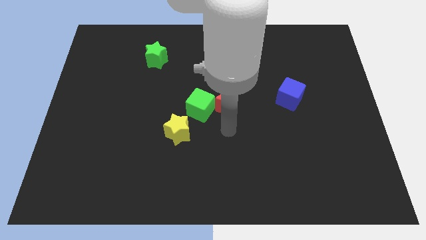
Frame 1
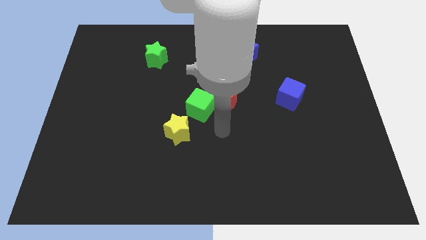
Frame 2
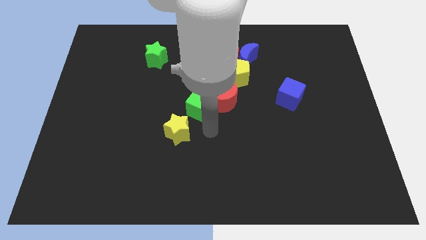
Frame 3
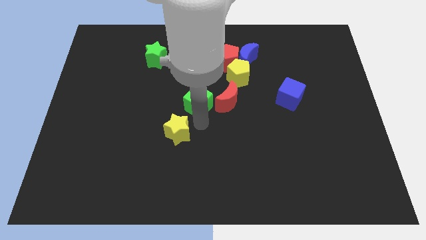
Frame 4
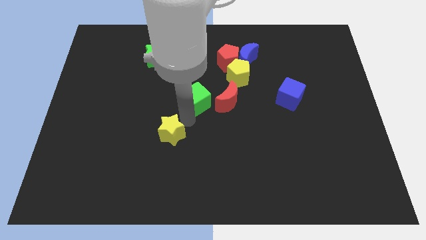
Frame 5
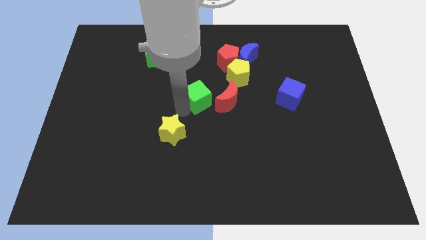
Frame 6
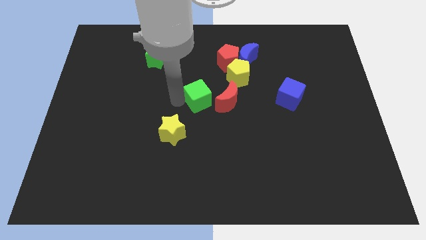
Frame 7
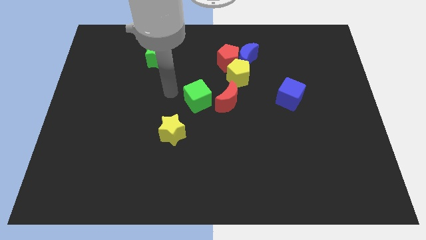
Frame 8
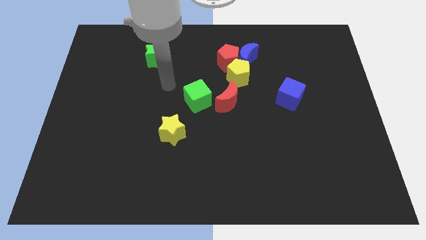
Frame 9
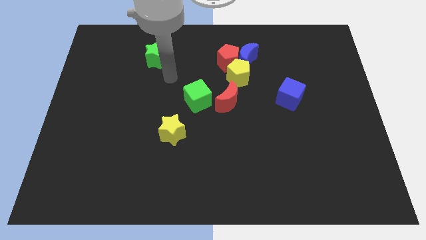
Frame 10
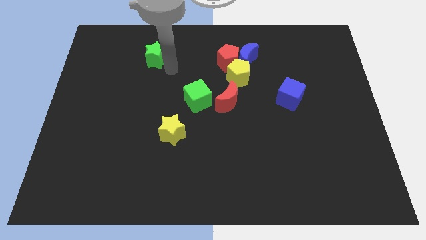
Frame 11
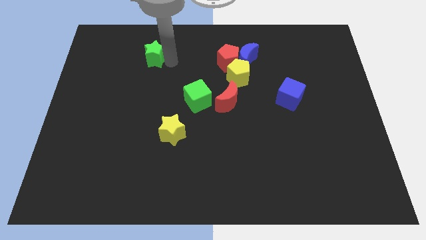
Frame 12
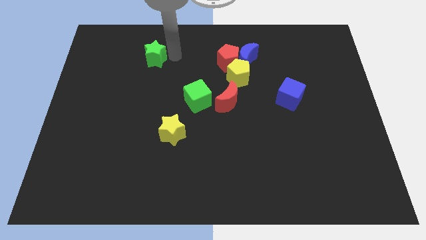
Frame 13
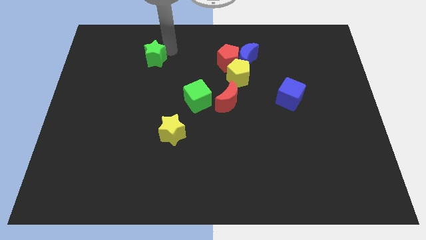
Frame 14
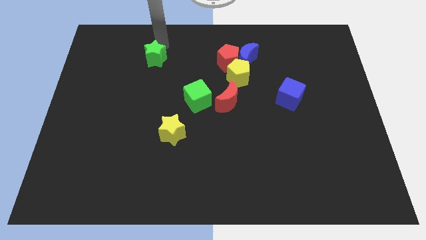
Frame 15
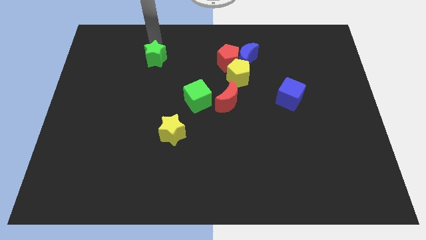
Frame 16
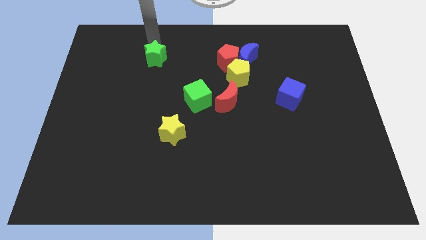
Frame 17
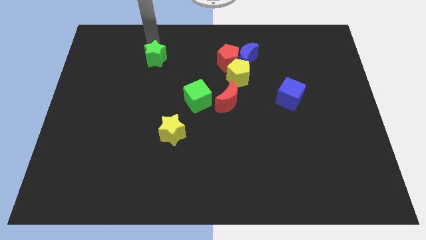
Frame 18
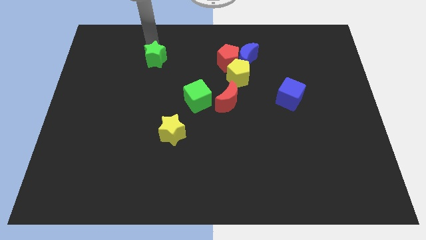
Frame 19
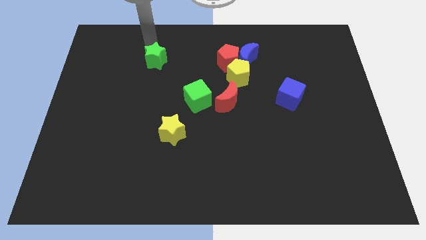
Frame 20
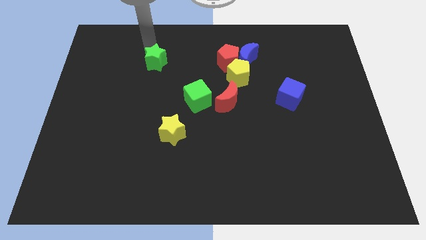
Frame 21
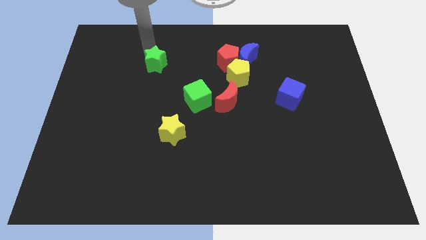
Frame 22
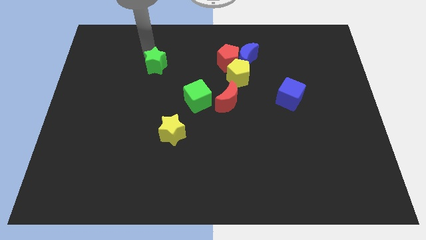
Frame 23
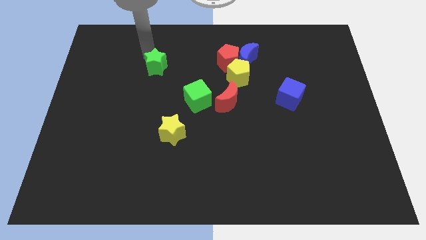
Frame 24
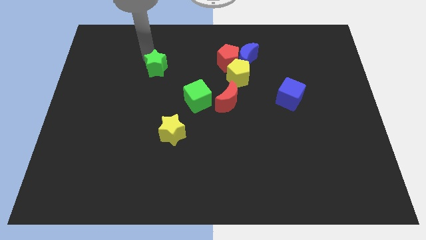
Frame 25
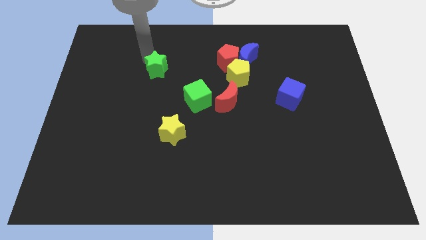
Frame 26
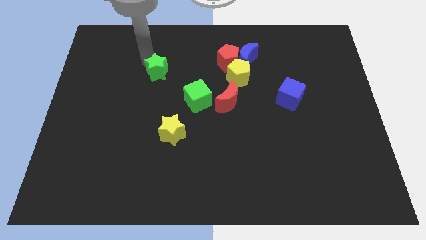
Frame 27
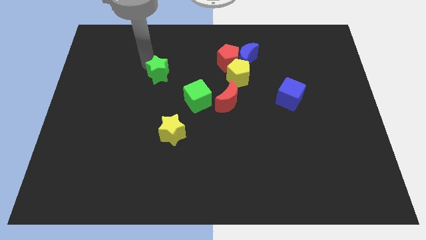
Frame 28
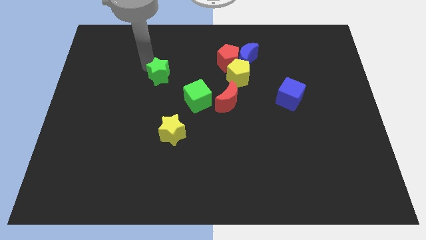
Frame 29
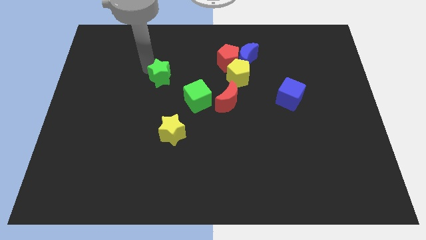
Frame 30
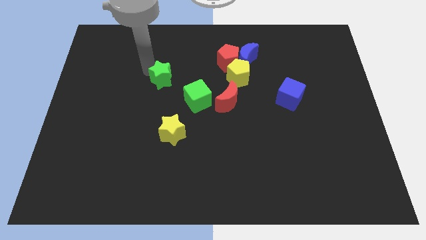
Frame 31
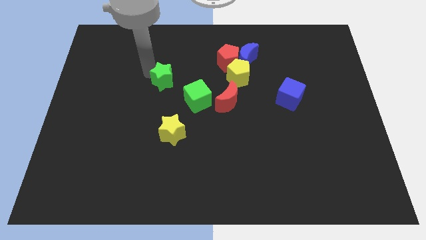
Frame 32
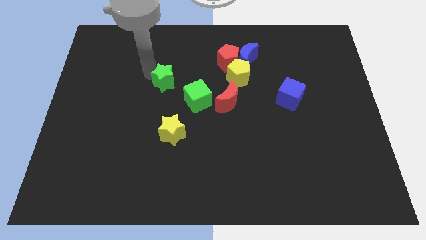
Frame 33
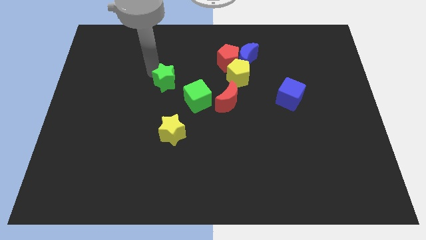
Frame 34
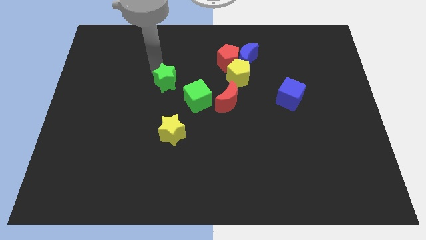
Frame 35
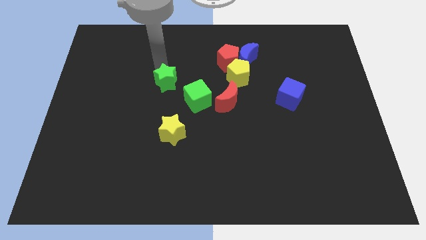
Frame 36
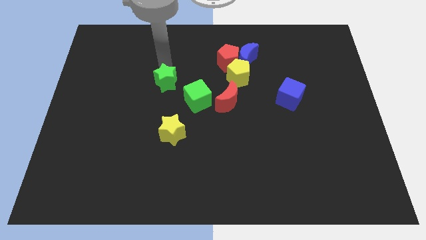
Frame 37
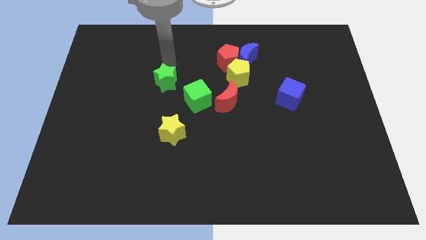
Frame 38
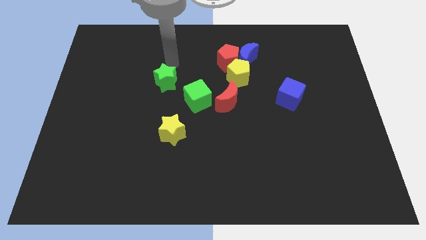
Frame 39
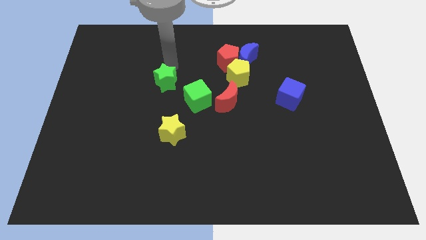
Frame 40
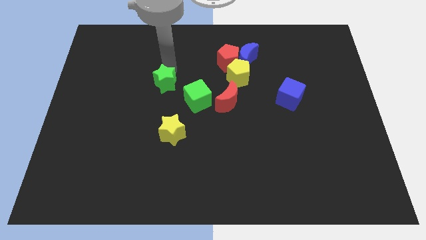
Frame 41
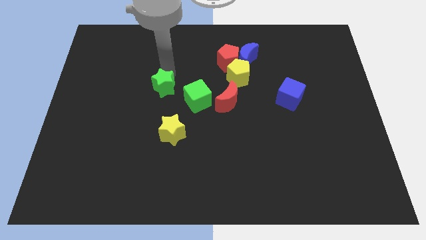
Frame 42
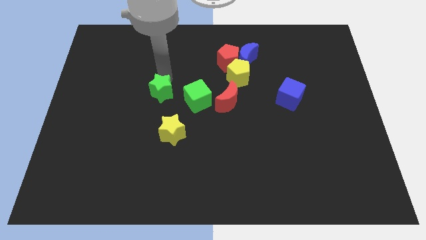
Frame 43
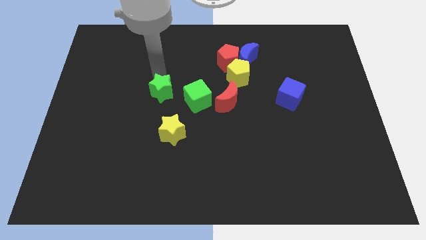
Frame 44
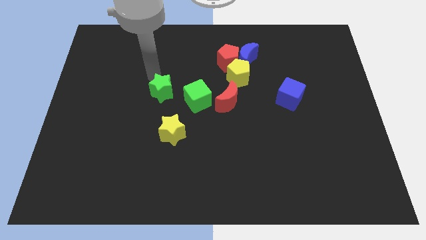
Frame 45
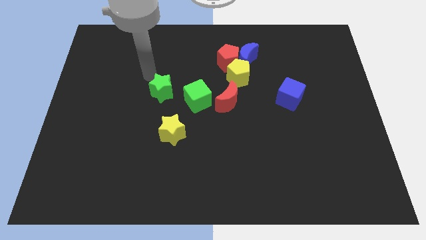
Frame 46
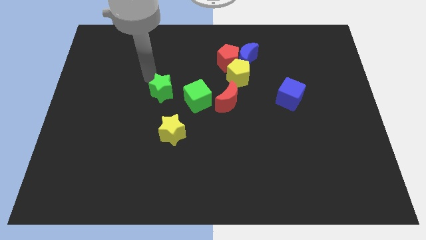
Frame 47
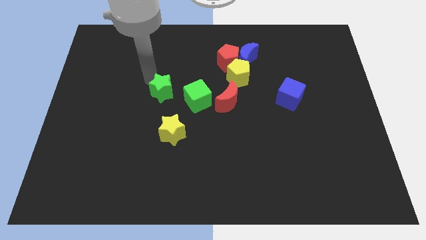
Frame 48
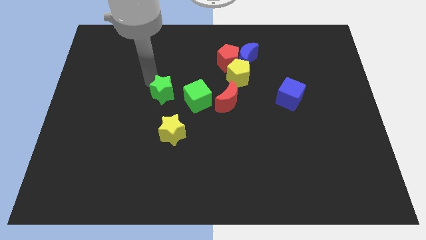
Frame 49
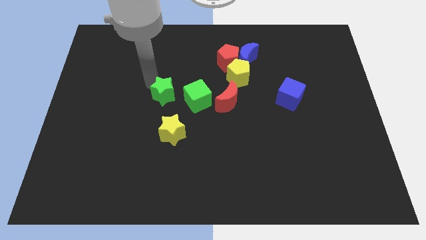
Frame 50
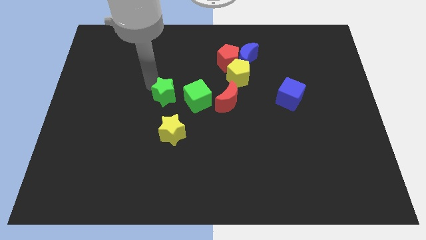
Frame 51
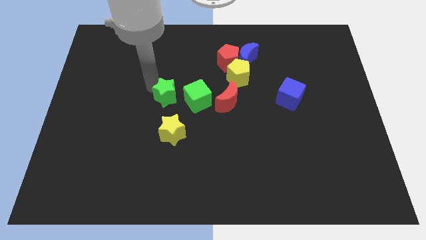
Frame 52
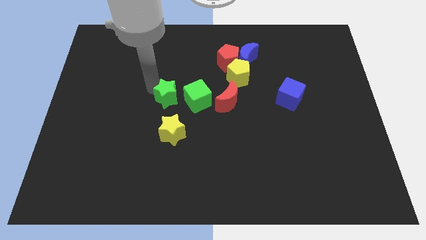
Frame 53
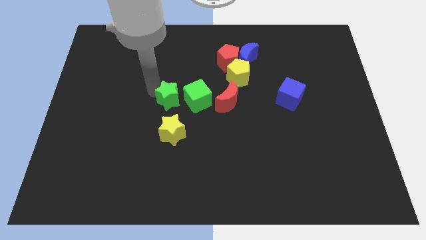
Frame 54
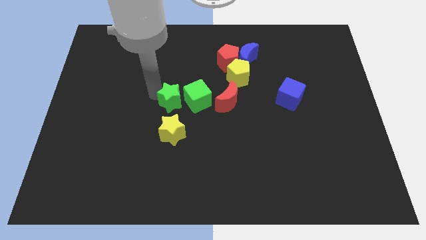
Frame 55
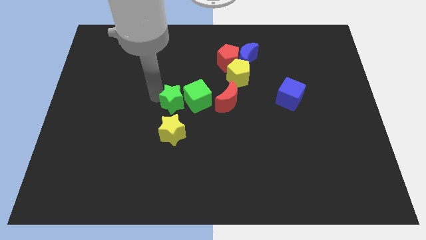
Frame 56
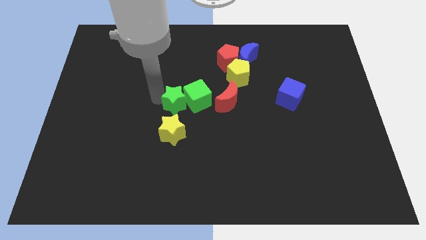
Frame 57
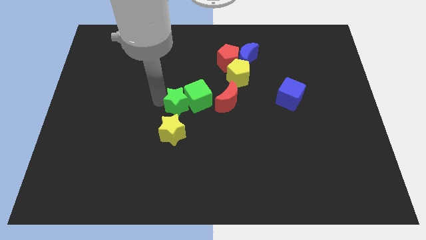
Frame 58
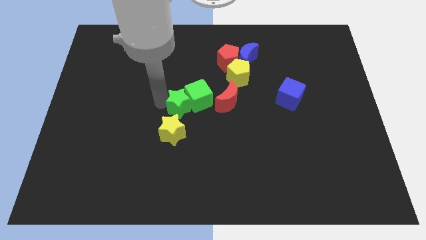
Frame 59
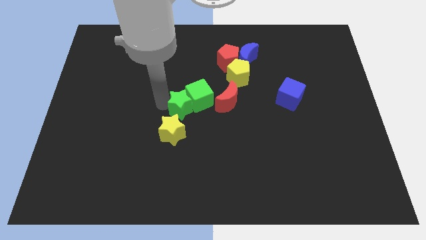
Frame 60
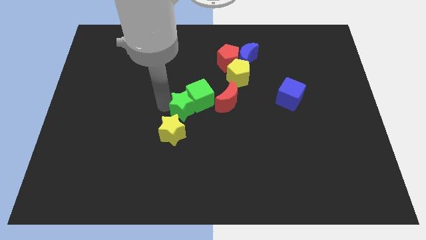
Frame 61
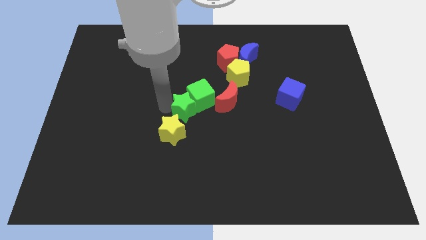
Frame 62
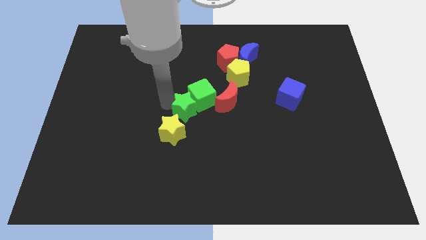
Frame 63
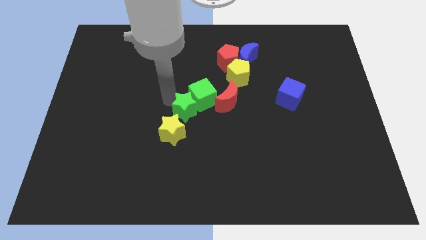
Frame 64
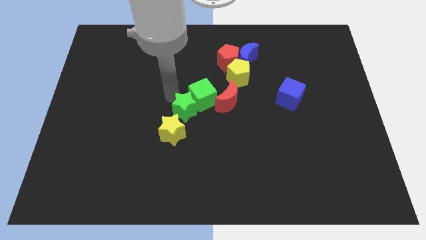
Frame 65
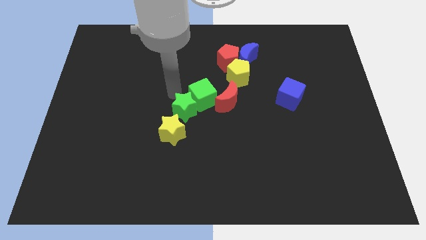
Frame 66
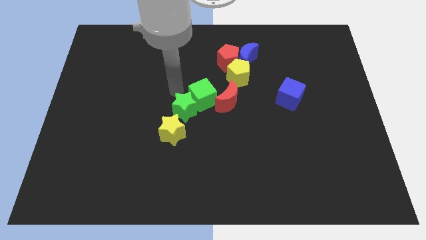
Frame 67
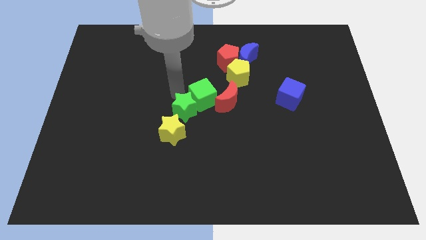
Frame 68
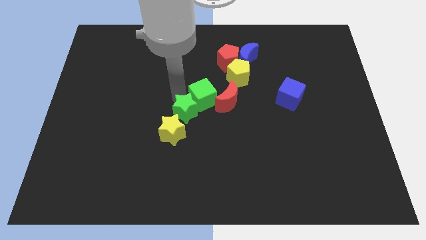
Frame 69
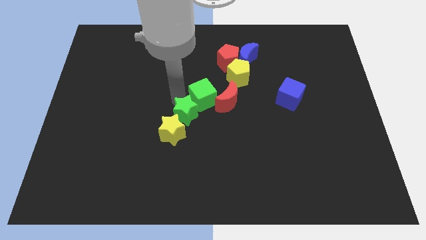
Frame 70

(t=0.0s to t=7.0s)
move the green star to the bottom left side of the red moon

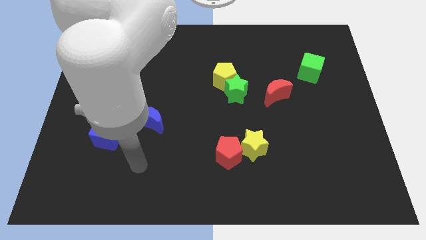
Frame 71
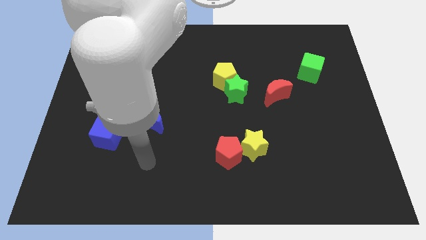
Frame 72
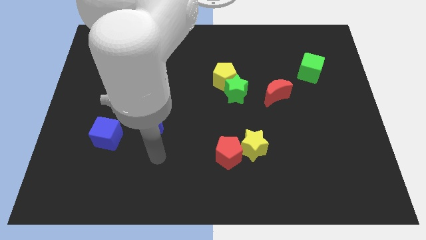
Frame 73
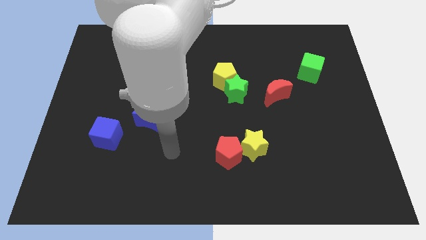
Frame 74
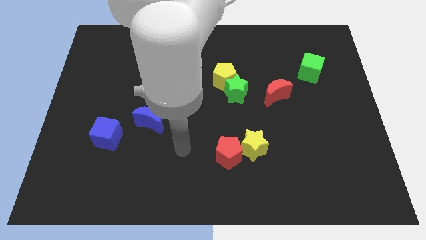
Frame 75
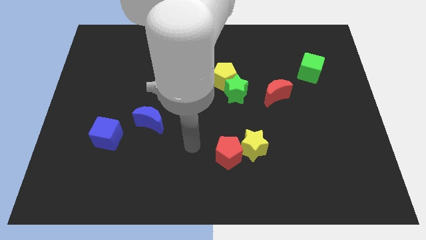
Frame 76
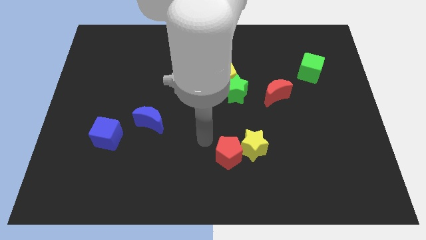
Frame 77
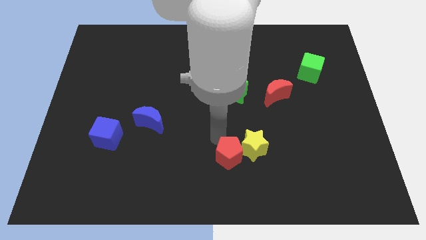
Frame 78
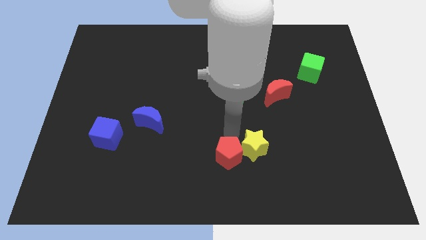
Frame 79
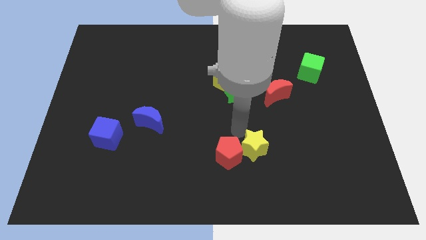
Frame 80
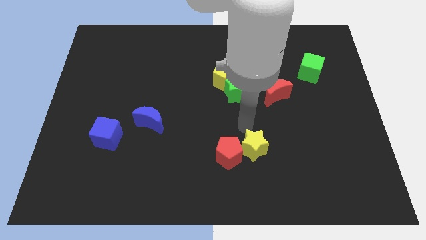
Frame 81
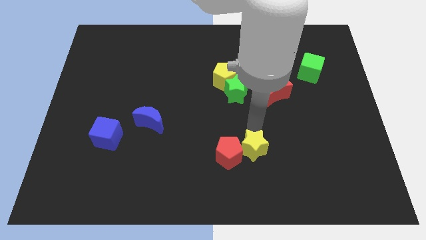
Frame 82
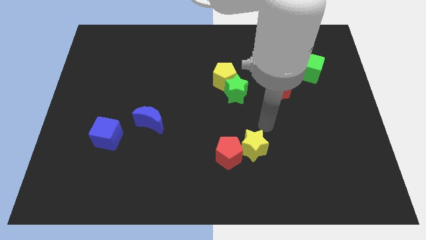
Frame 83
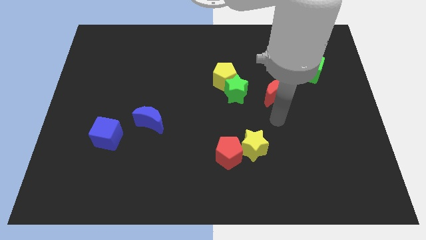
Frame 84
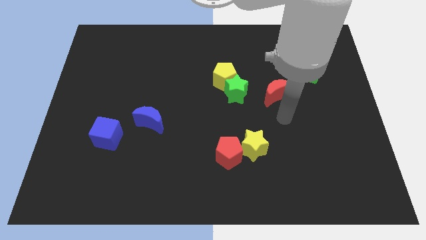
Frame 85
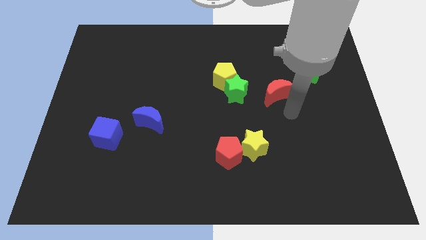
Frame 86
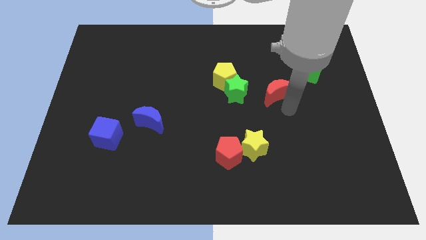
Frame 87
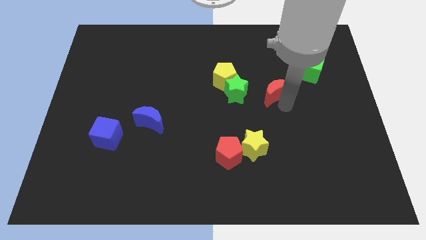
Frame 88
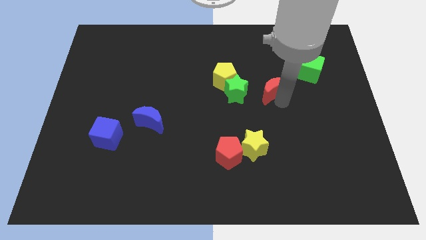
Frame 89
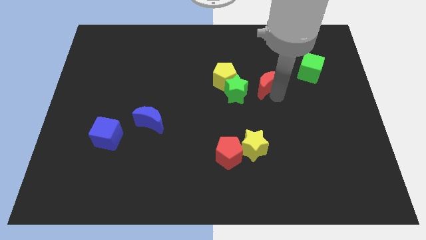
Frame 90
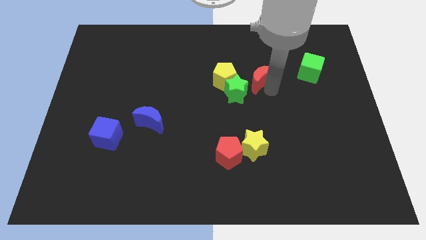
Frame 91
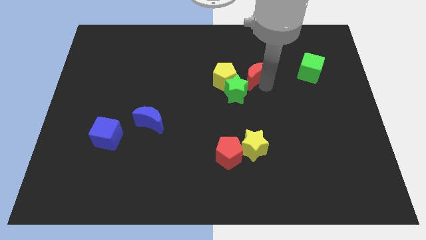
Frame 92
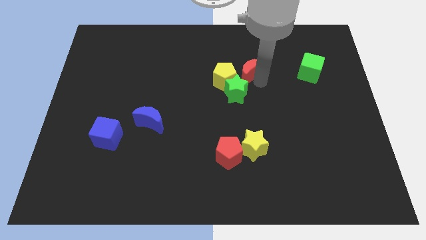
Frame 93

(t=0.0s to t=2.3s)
push the red moon to the top right side of the yellow pentagon
